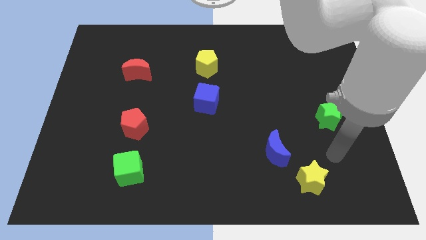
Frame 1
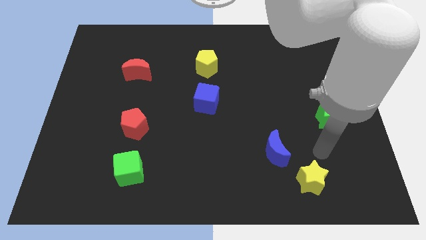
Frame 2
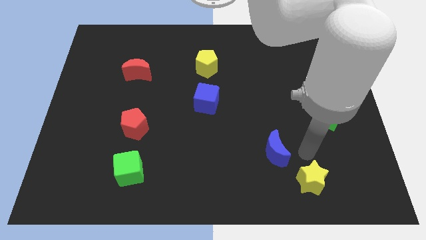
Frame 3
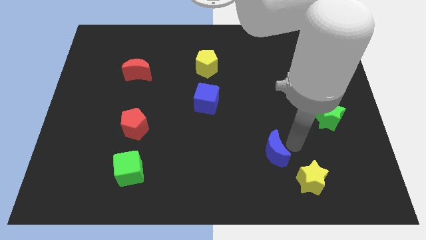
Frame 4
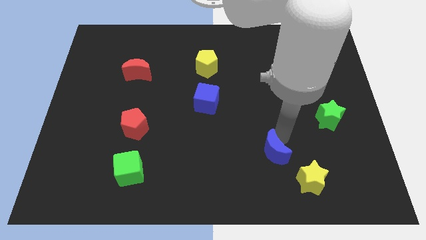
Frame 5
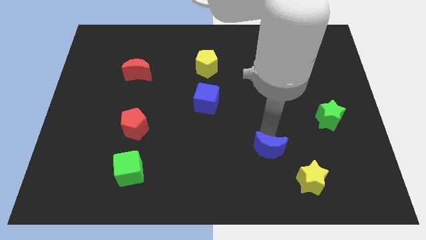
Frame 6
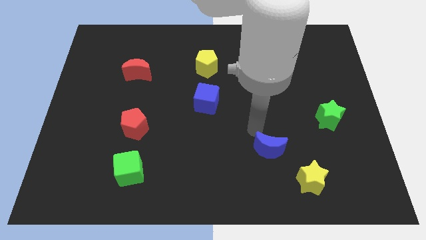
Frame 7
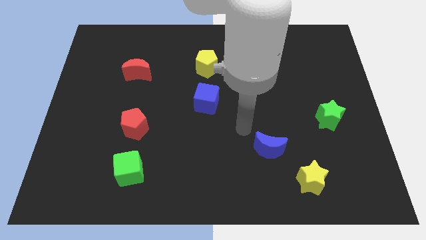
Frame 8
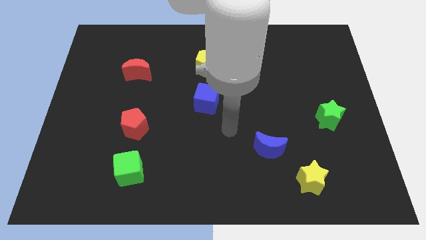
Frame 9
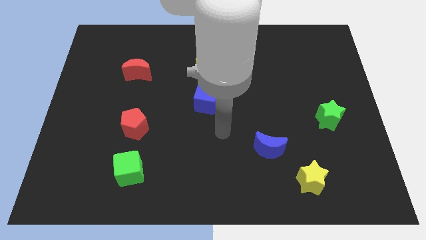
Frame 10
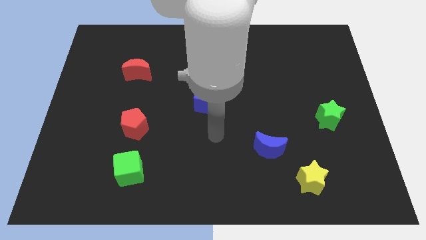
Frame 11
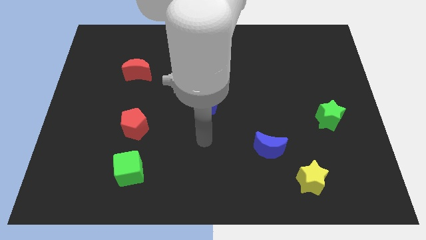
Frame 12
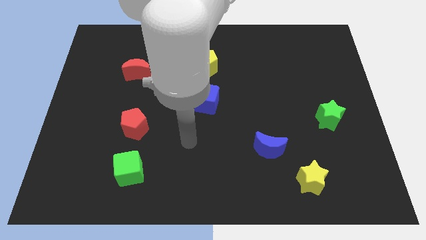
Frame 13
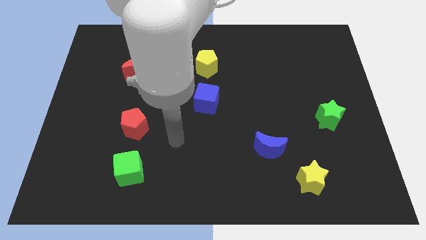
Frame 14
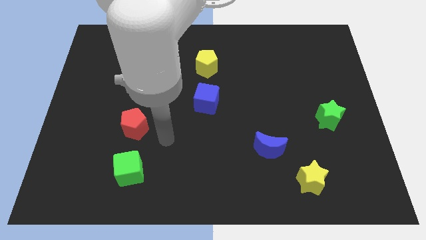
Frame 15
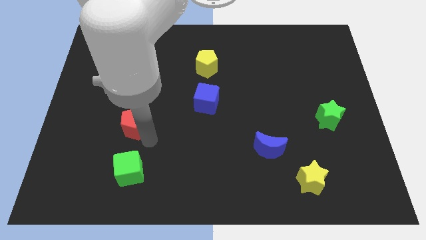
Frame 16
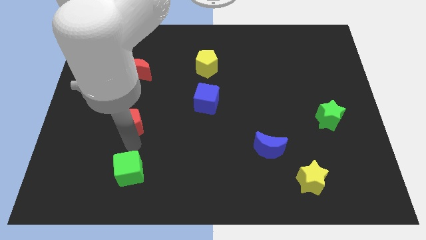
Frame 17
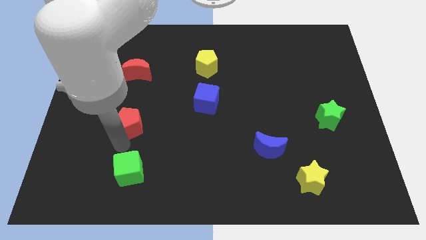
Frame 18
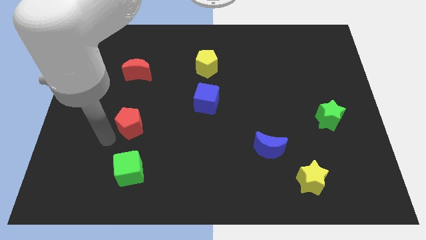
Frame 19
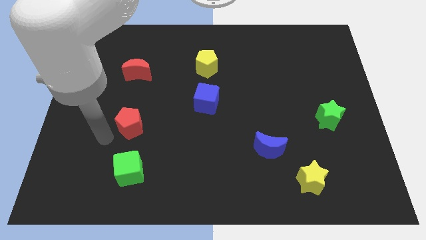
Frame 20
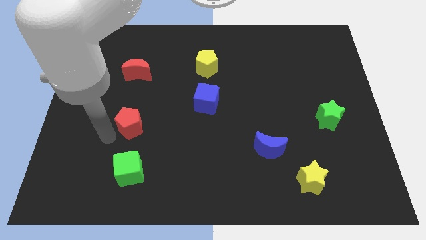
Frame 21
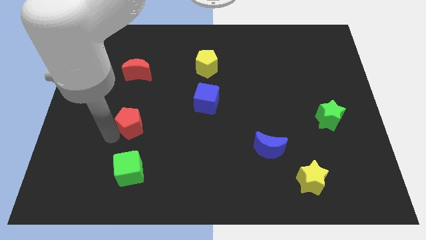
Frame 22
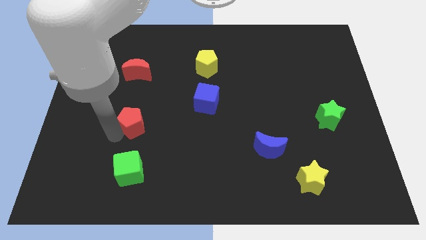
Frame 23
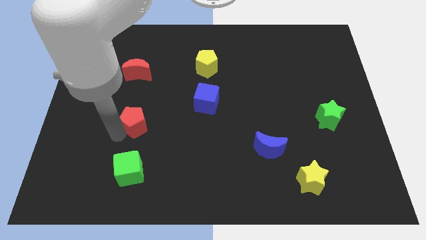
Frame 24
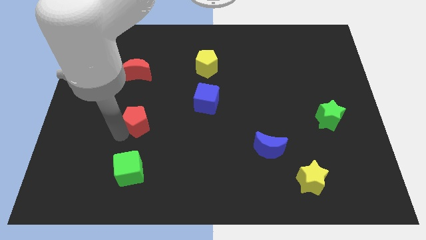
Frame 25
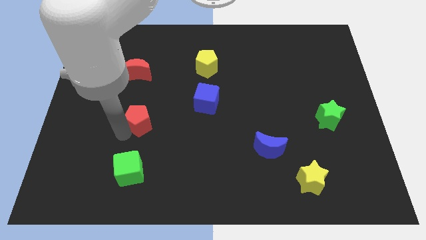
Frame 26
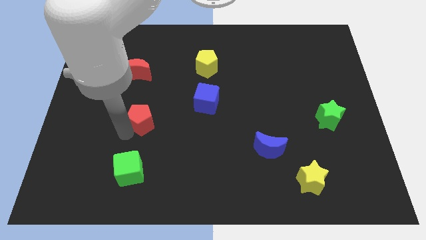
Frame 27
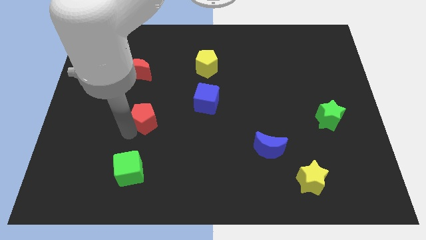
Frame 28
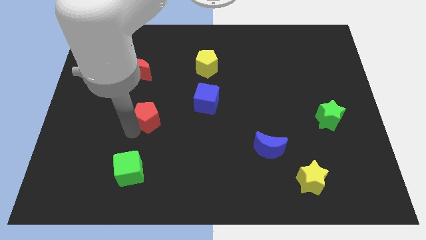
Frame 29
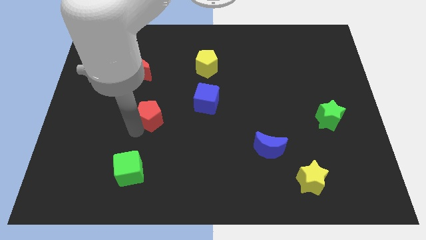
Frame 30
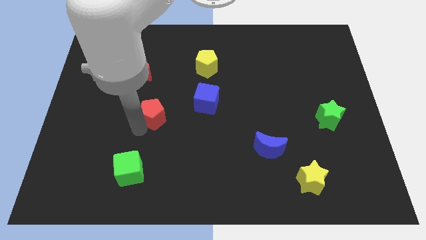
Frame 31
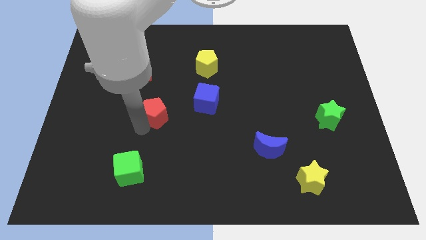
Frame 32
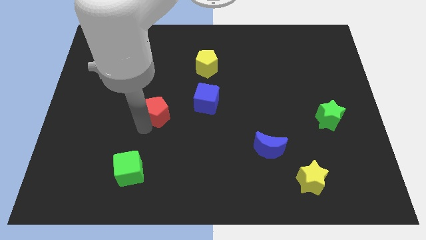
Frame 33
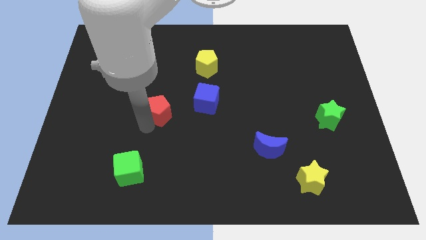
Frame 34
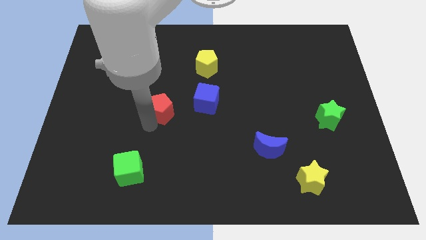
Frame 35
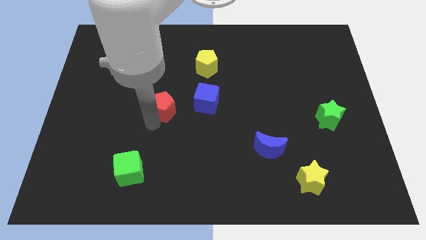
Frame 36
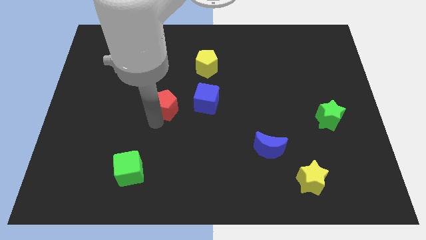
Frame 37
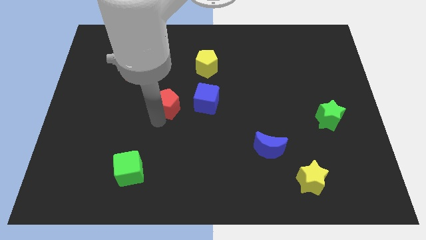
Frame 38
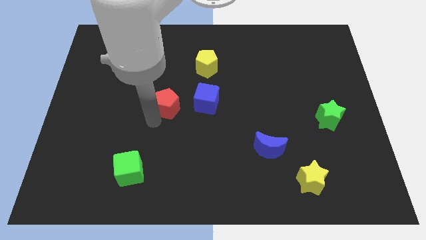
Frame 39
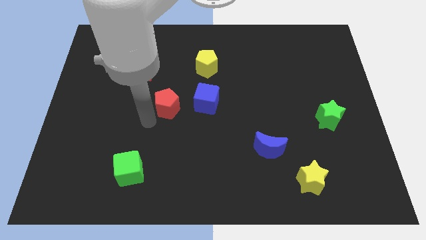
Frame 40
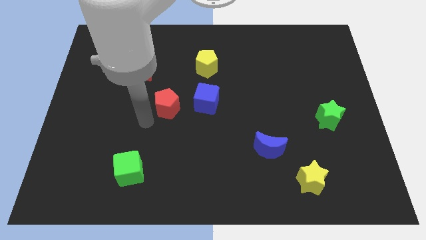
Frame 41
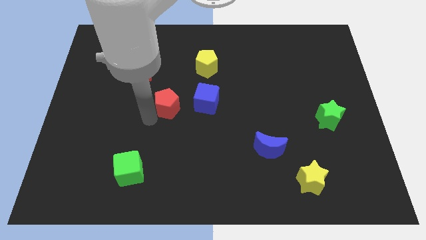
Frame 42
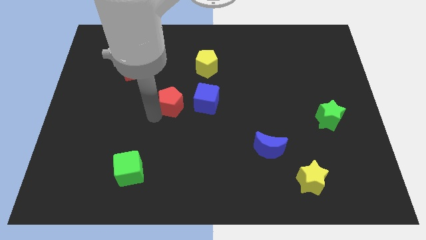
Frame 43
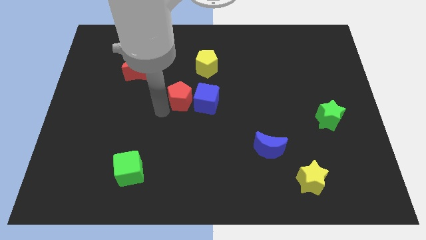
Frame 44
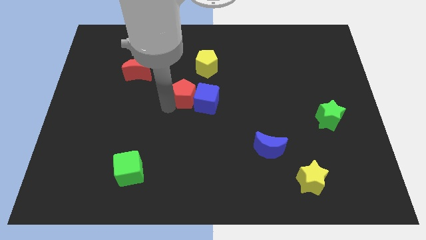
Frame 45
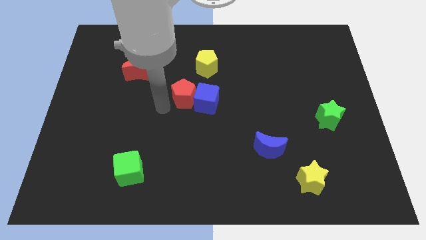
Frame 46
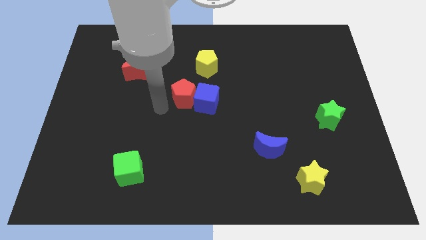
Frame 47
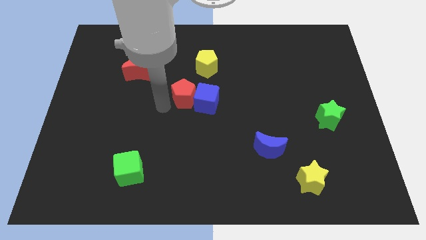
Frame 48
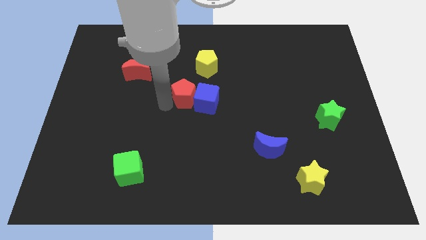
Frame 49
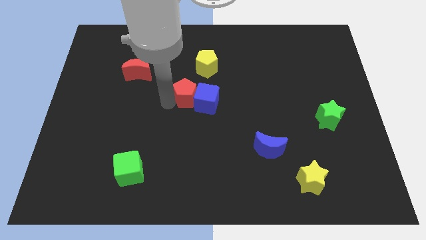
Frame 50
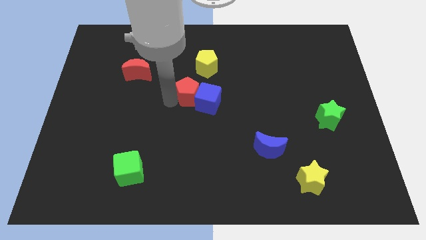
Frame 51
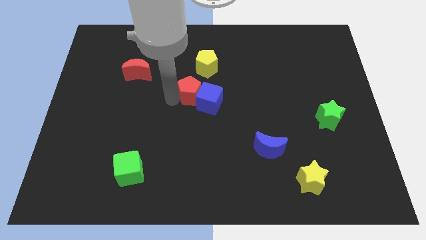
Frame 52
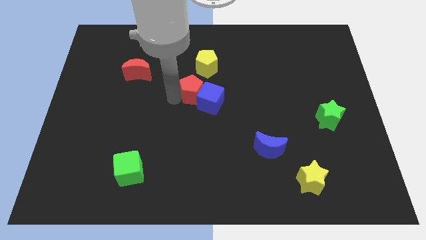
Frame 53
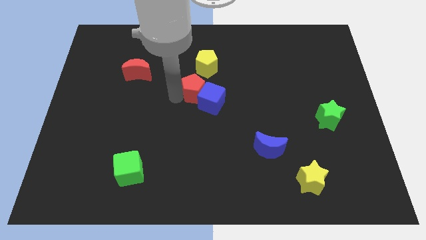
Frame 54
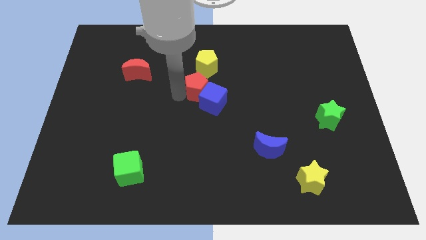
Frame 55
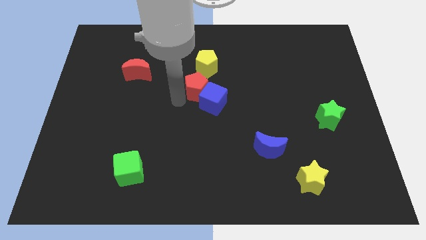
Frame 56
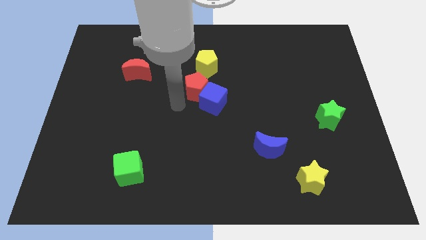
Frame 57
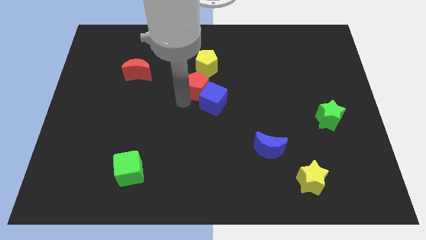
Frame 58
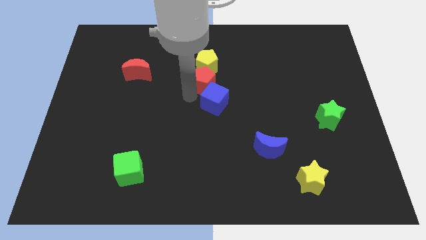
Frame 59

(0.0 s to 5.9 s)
slide the red pentagon upwards and right

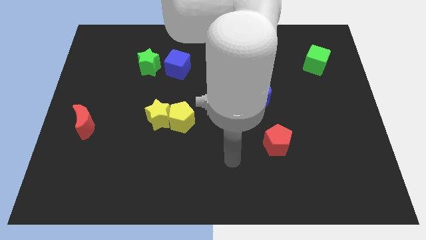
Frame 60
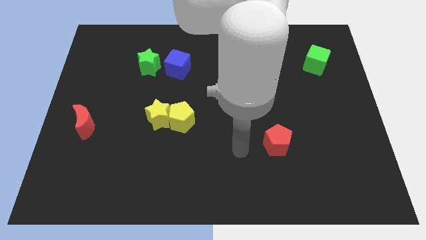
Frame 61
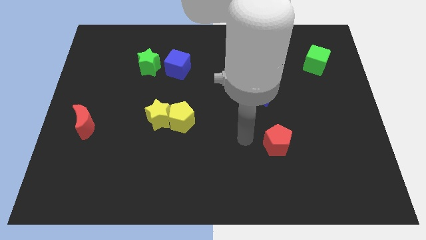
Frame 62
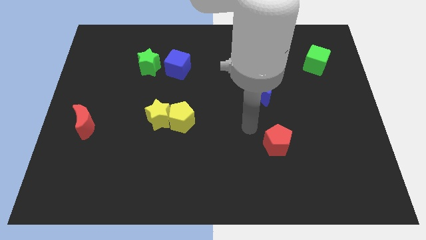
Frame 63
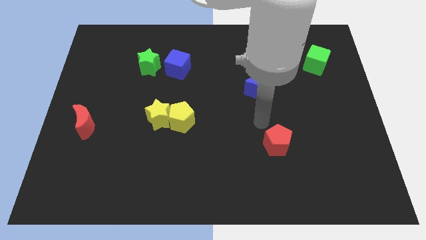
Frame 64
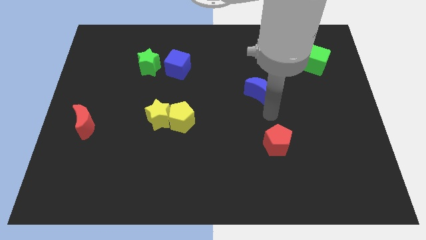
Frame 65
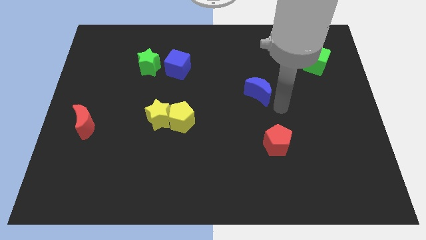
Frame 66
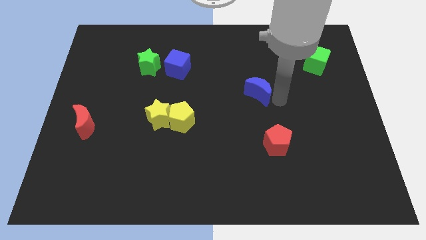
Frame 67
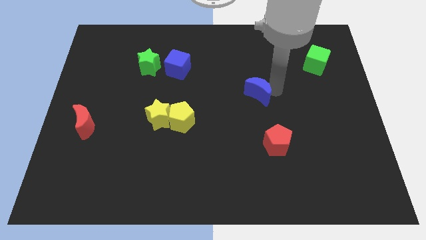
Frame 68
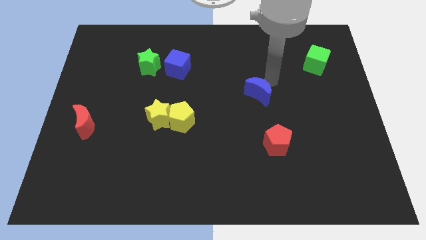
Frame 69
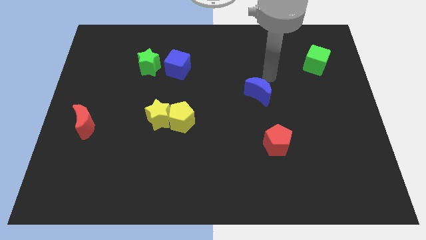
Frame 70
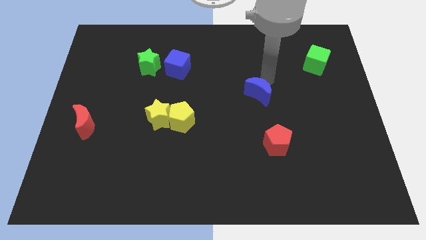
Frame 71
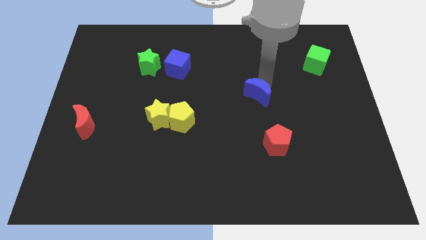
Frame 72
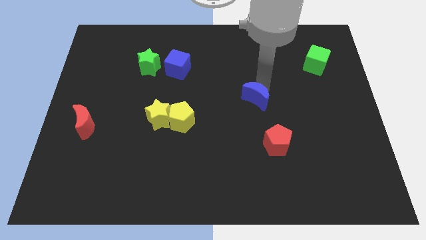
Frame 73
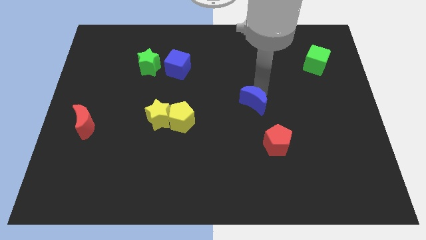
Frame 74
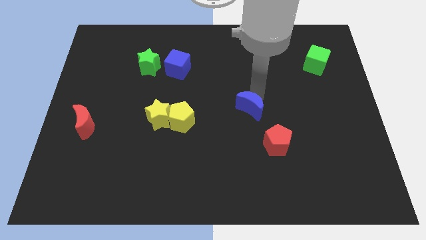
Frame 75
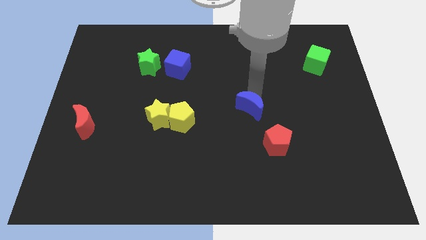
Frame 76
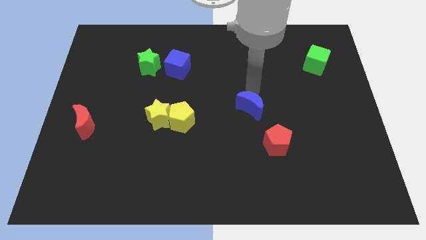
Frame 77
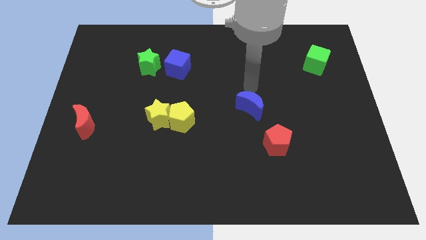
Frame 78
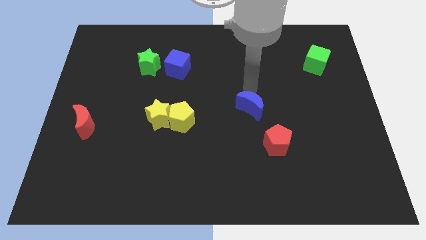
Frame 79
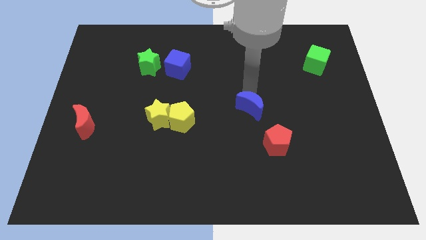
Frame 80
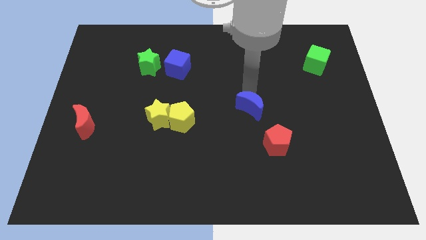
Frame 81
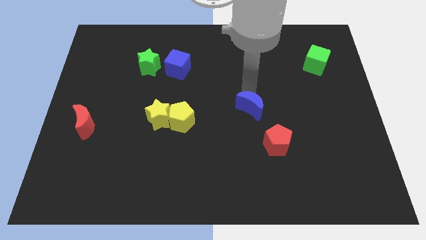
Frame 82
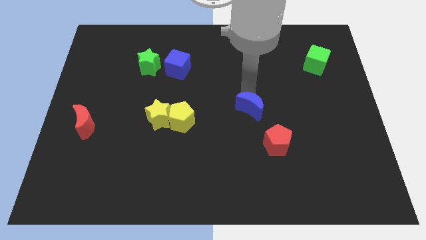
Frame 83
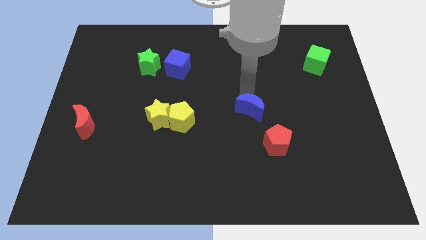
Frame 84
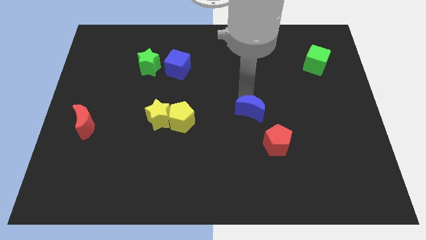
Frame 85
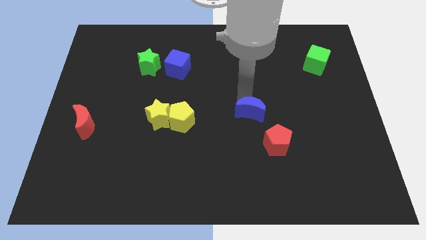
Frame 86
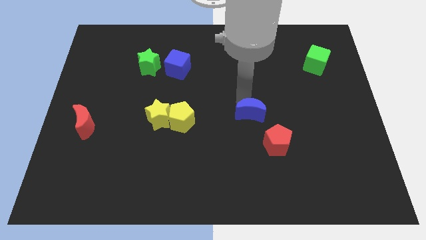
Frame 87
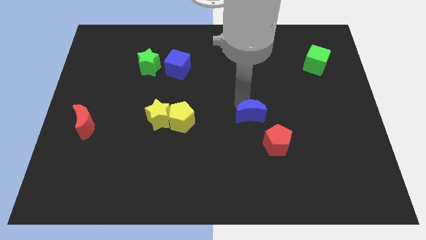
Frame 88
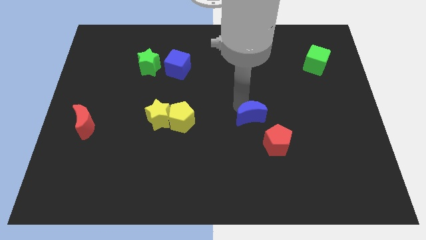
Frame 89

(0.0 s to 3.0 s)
slightly slide the blue moon downwards
